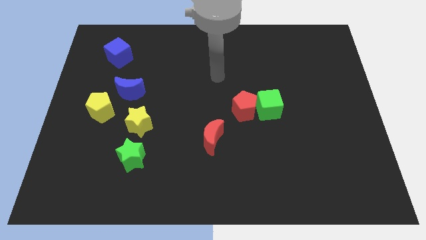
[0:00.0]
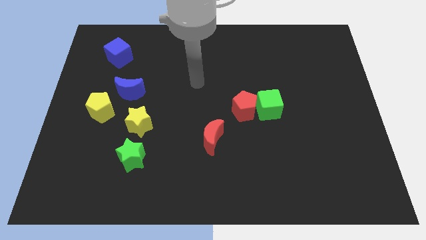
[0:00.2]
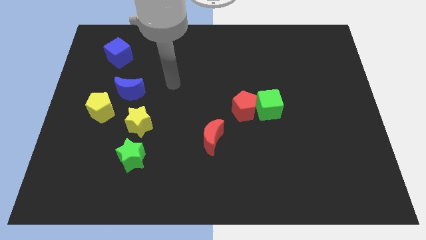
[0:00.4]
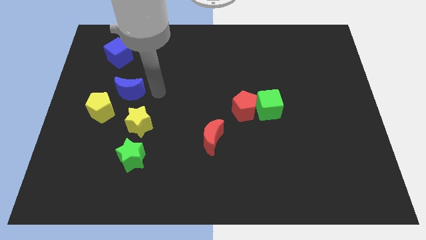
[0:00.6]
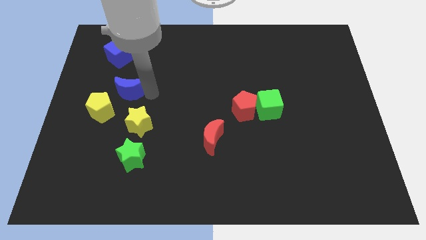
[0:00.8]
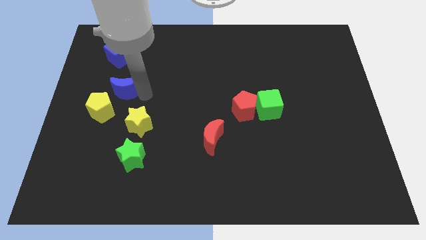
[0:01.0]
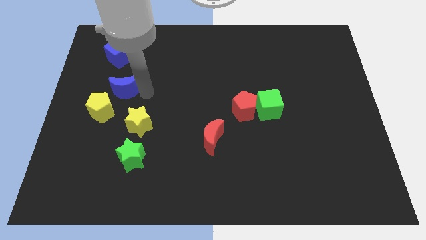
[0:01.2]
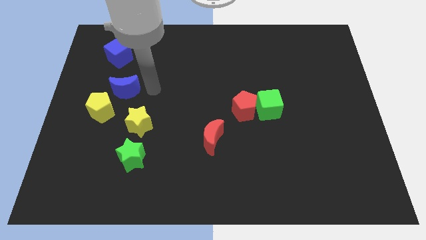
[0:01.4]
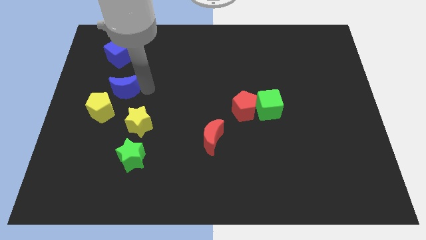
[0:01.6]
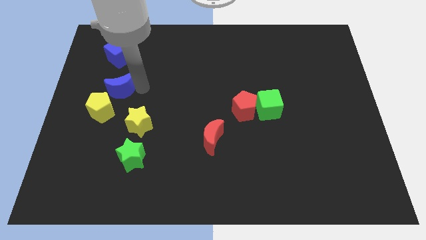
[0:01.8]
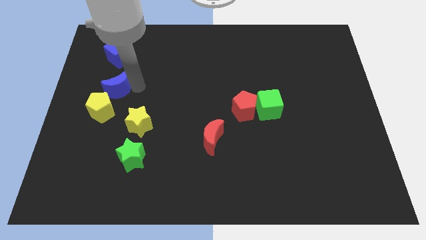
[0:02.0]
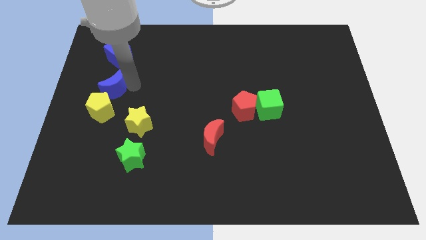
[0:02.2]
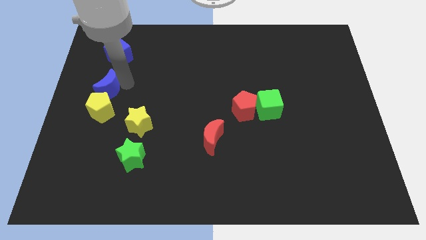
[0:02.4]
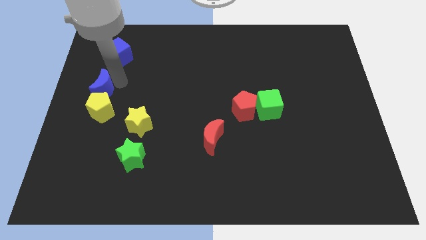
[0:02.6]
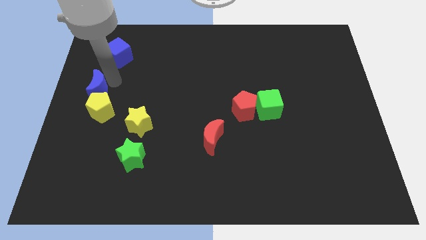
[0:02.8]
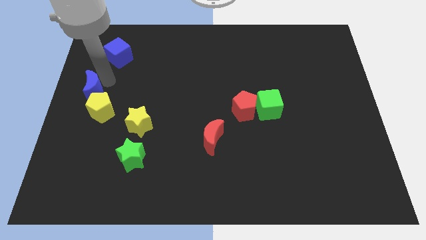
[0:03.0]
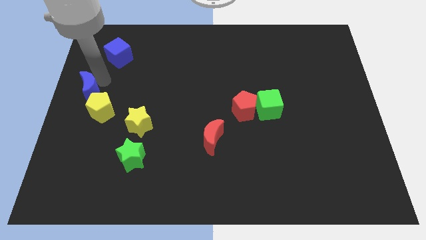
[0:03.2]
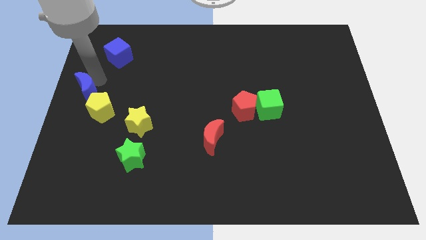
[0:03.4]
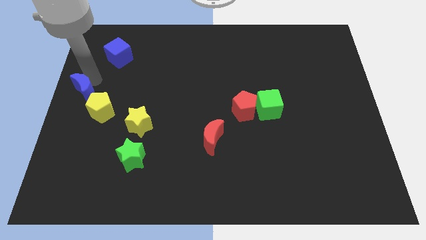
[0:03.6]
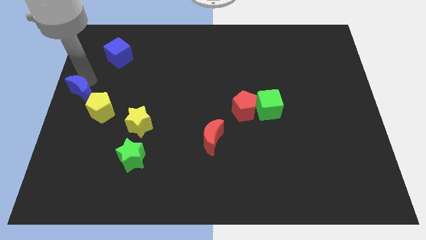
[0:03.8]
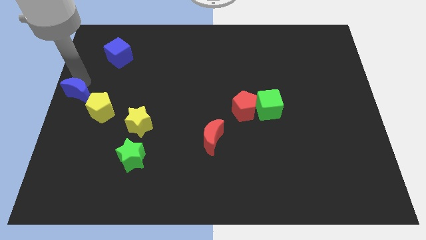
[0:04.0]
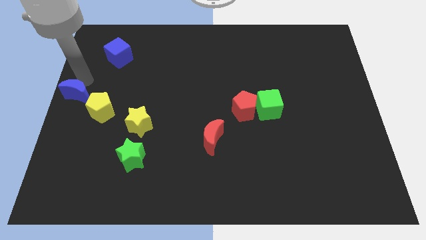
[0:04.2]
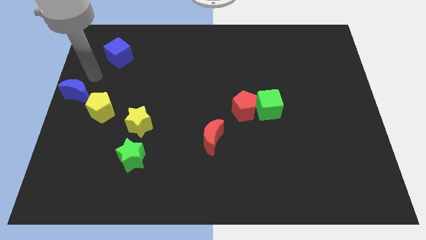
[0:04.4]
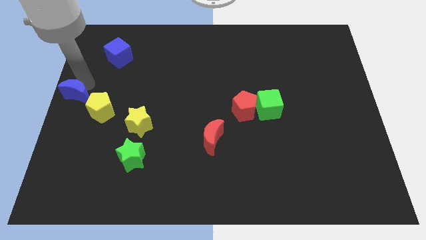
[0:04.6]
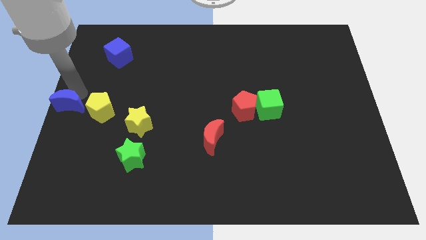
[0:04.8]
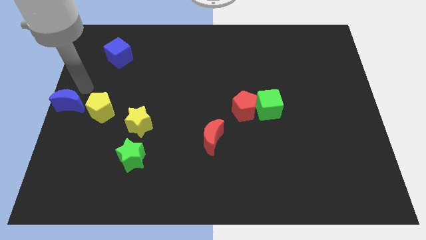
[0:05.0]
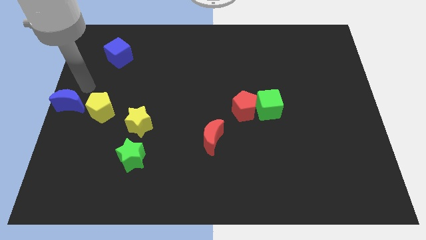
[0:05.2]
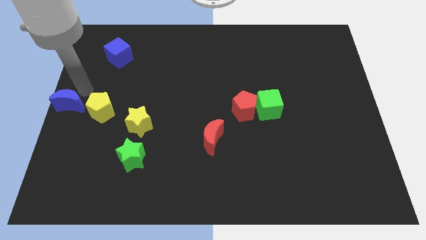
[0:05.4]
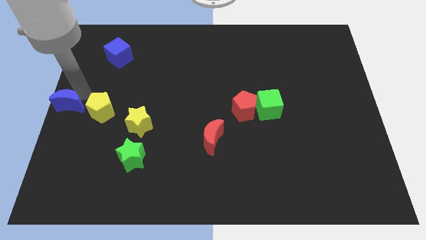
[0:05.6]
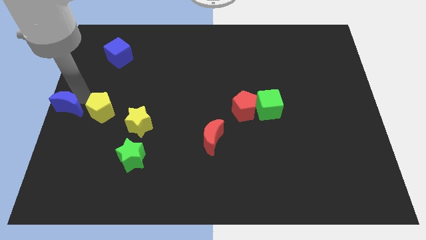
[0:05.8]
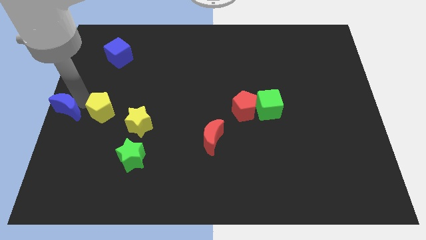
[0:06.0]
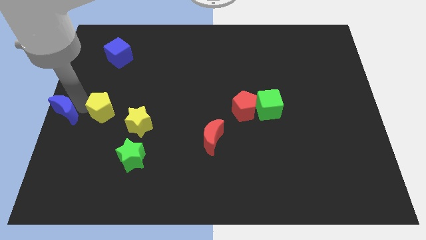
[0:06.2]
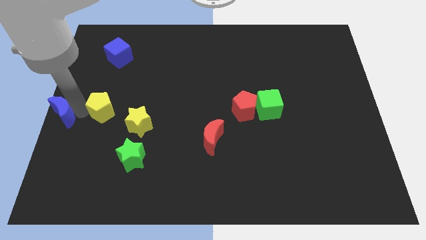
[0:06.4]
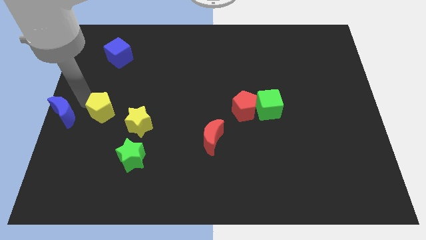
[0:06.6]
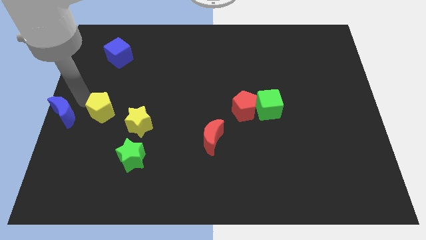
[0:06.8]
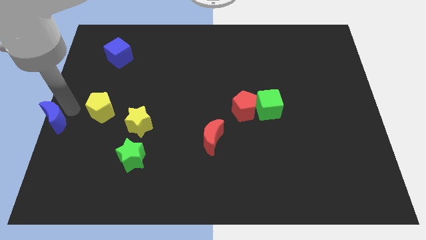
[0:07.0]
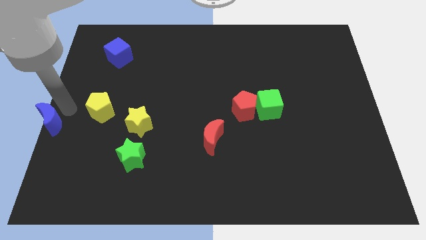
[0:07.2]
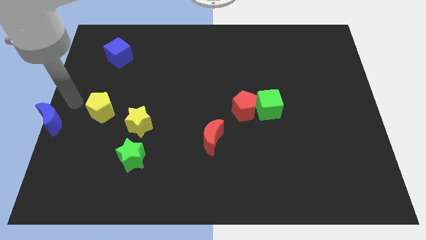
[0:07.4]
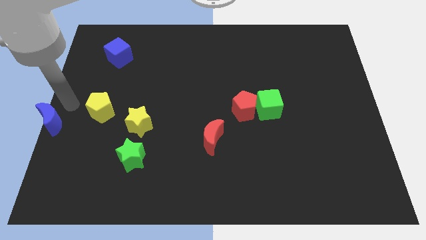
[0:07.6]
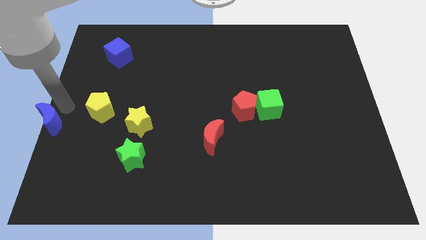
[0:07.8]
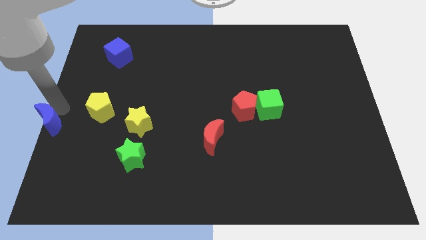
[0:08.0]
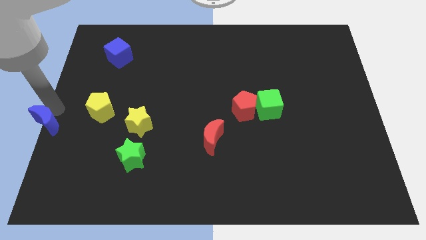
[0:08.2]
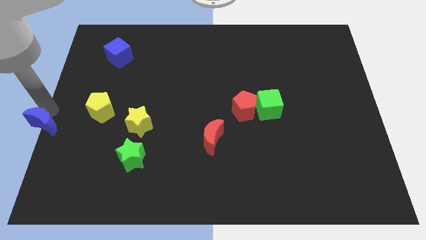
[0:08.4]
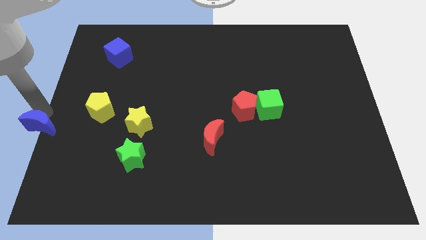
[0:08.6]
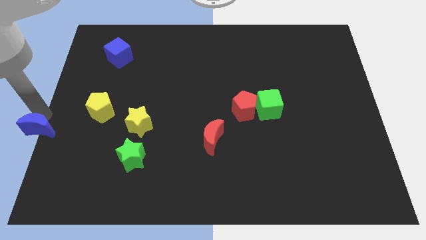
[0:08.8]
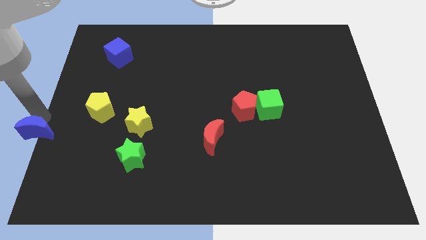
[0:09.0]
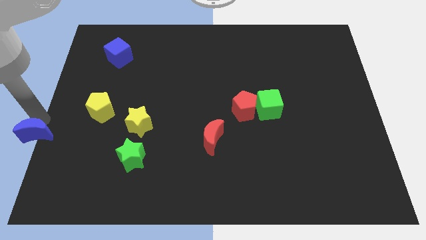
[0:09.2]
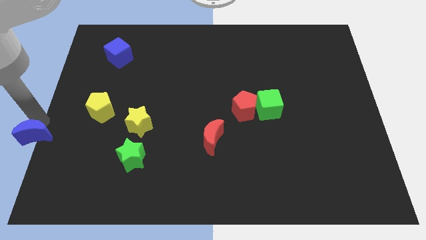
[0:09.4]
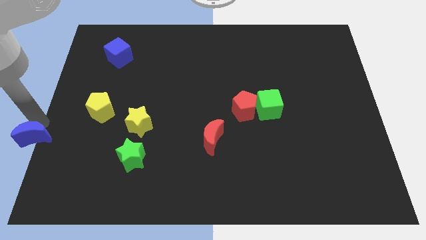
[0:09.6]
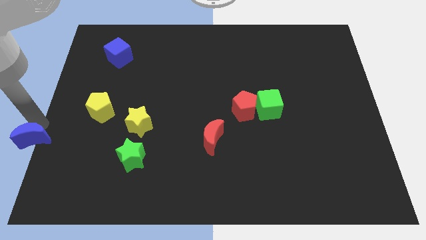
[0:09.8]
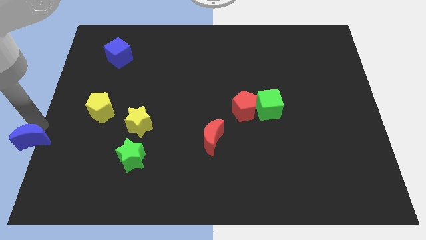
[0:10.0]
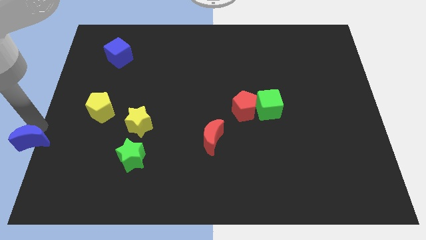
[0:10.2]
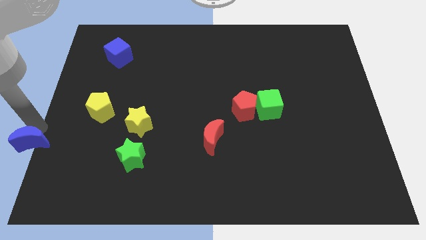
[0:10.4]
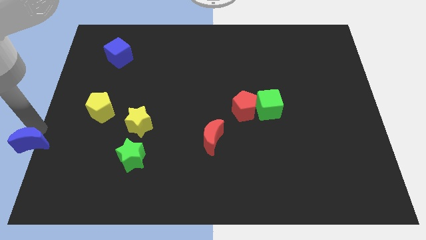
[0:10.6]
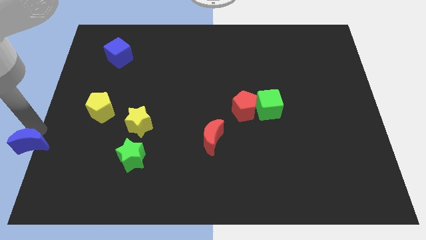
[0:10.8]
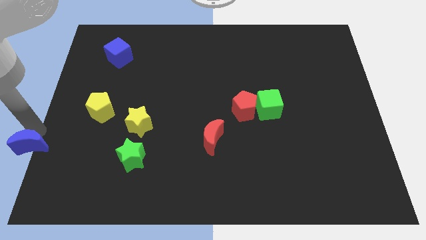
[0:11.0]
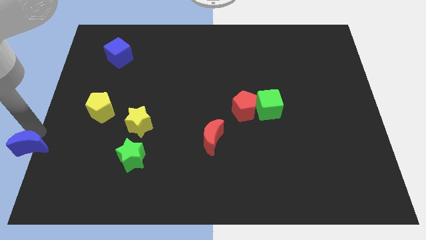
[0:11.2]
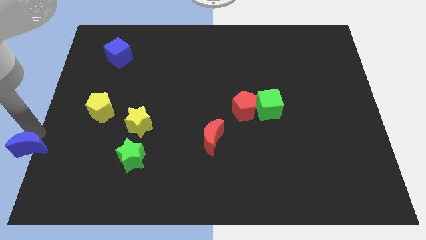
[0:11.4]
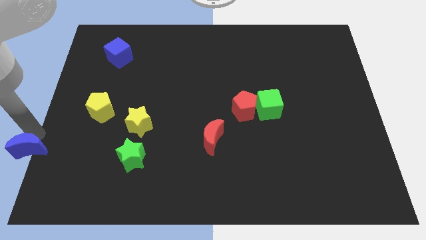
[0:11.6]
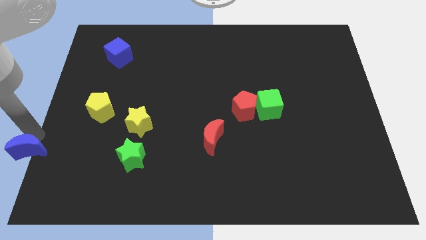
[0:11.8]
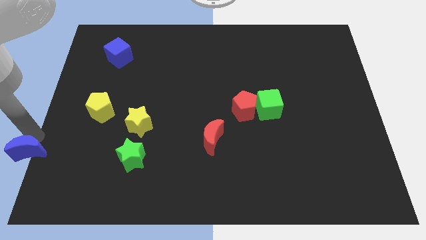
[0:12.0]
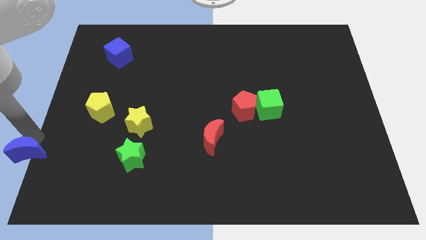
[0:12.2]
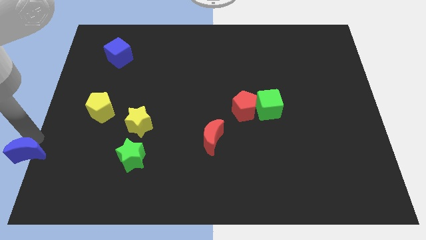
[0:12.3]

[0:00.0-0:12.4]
put the blue moon to the bottom left

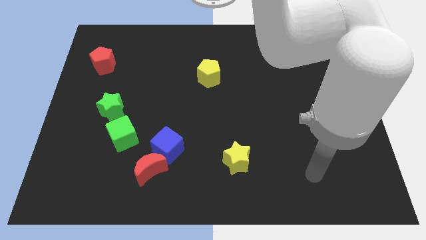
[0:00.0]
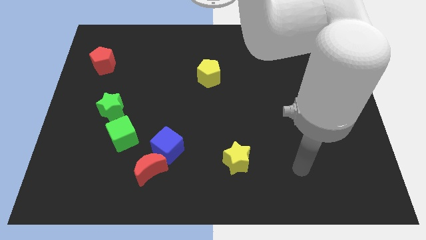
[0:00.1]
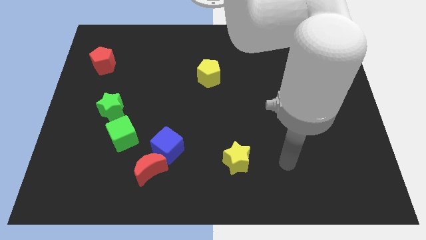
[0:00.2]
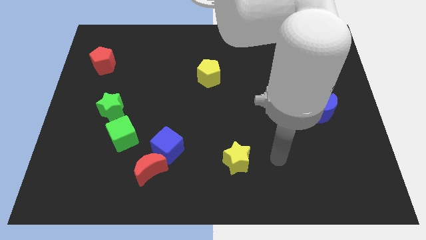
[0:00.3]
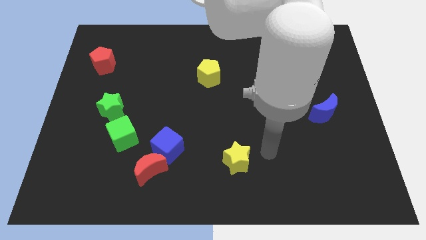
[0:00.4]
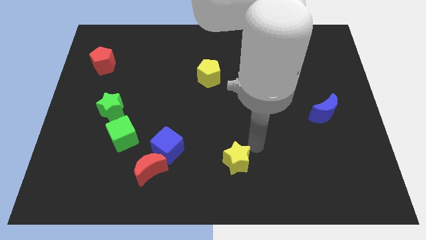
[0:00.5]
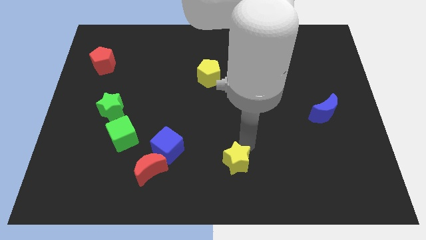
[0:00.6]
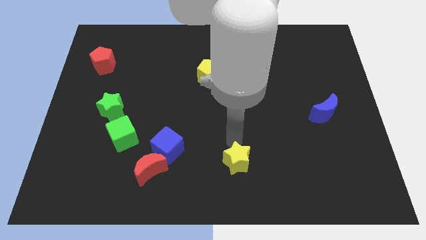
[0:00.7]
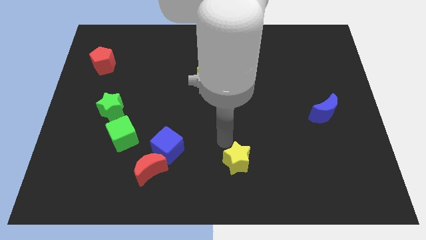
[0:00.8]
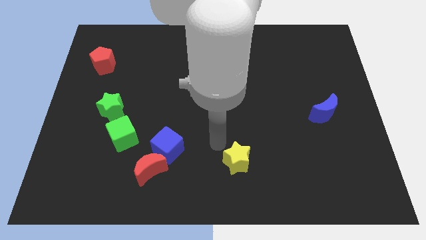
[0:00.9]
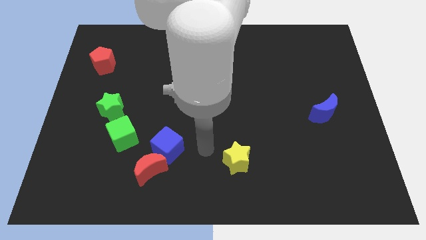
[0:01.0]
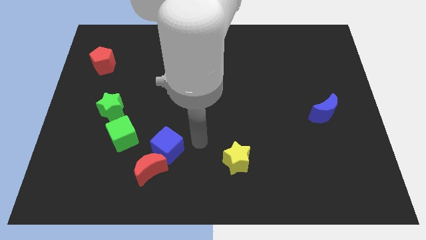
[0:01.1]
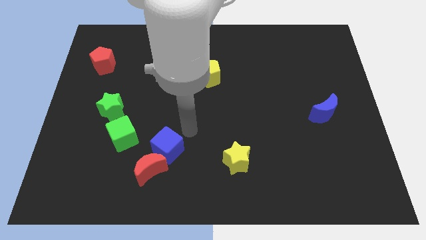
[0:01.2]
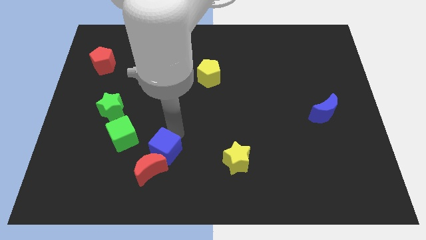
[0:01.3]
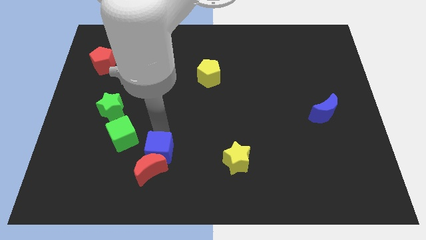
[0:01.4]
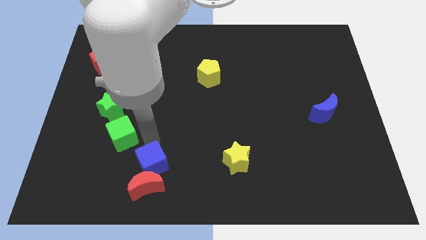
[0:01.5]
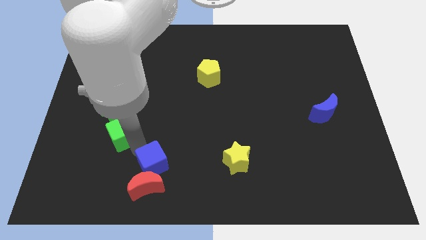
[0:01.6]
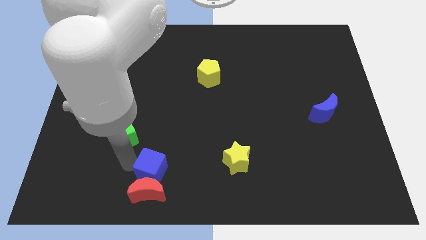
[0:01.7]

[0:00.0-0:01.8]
move the red moon to the bottom
